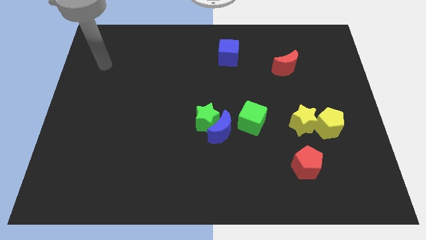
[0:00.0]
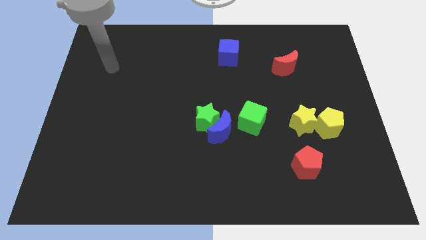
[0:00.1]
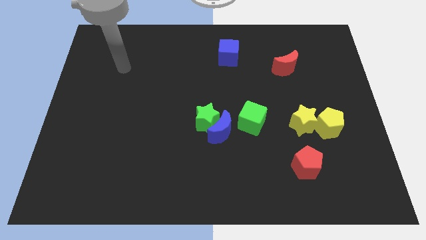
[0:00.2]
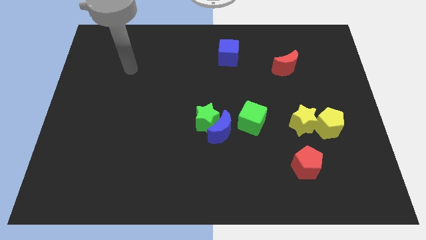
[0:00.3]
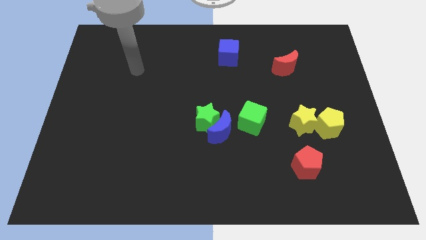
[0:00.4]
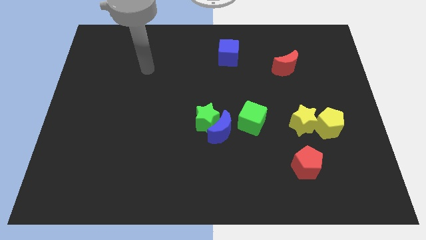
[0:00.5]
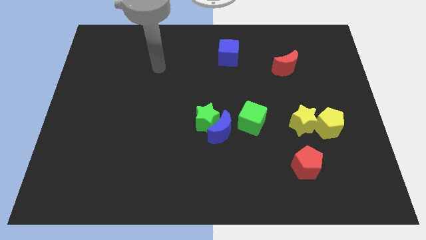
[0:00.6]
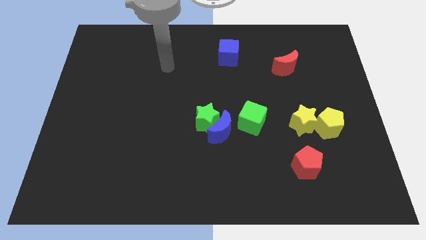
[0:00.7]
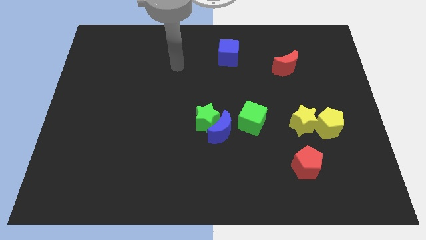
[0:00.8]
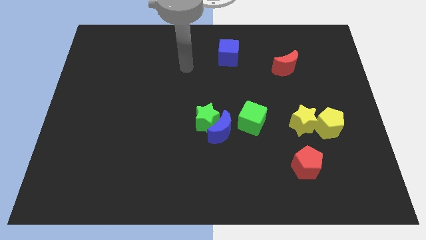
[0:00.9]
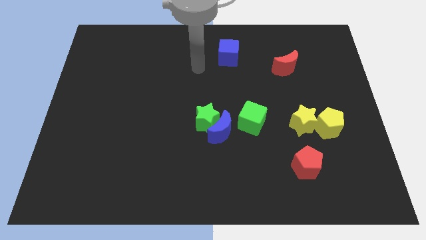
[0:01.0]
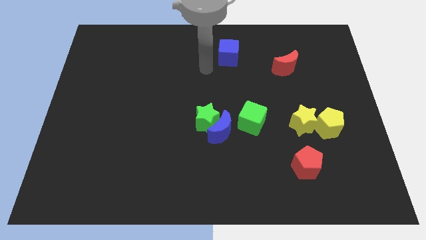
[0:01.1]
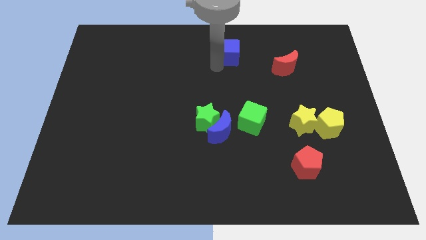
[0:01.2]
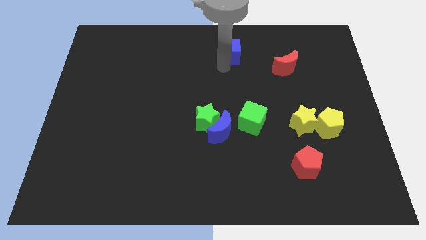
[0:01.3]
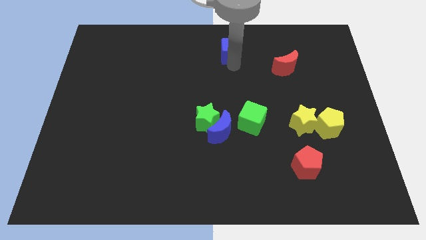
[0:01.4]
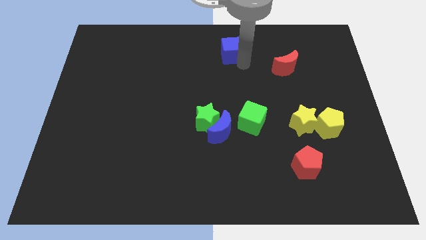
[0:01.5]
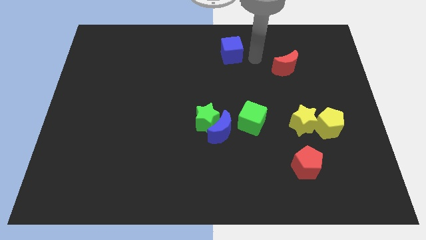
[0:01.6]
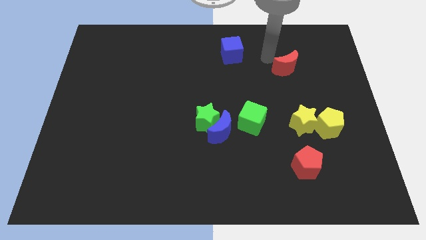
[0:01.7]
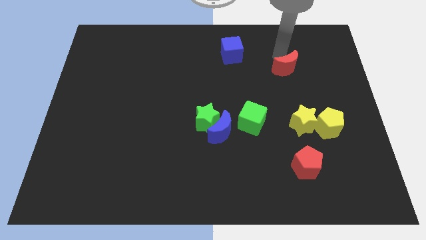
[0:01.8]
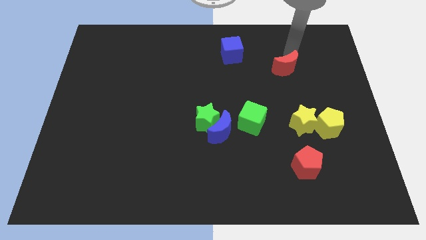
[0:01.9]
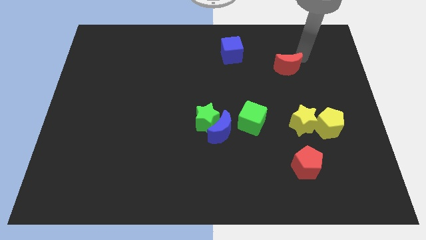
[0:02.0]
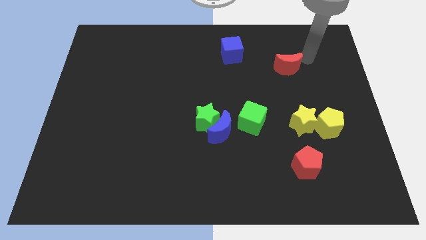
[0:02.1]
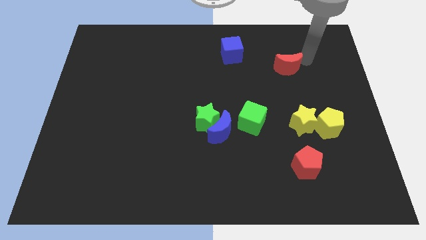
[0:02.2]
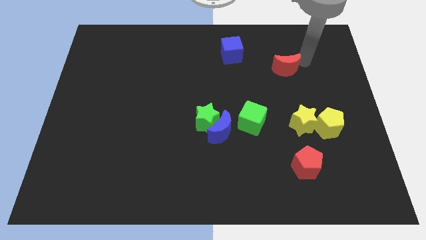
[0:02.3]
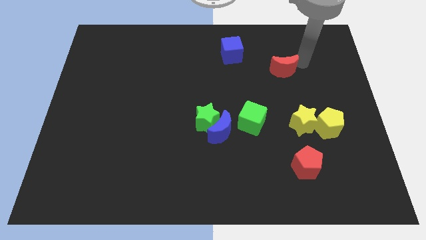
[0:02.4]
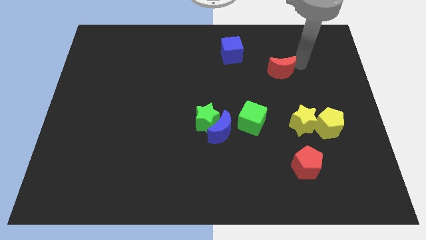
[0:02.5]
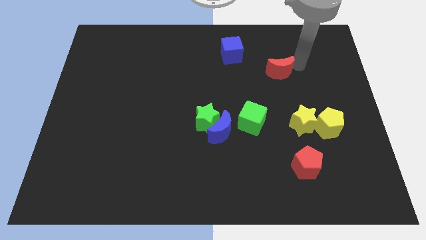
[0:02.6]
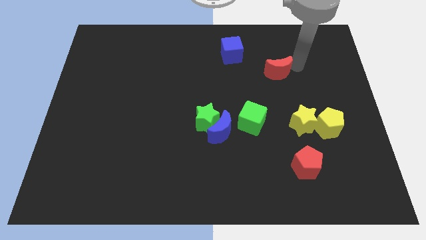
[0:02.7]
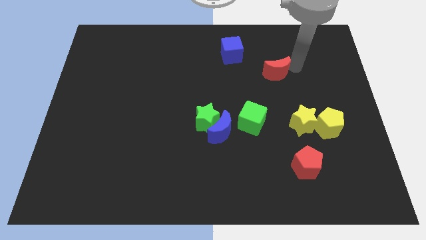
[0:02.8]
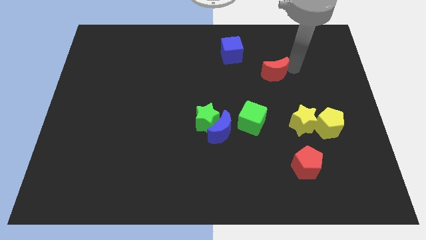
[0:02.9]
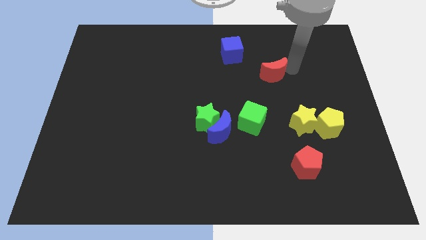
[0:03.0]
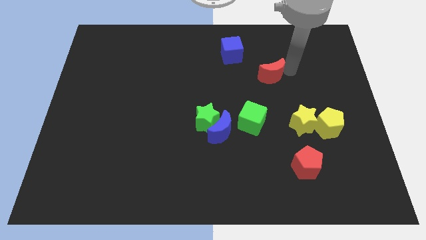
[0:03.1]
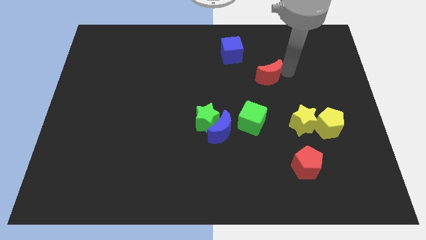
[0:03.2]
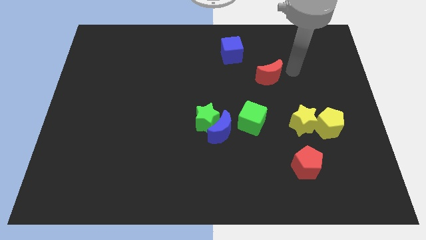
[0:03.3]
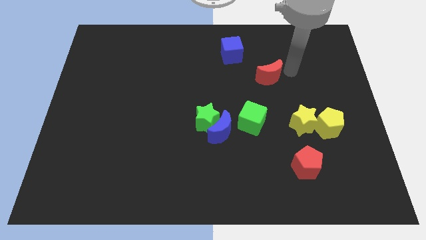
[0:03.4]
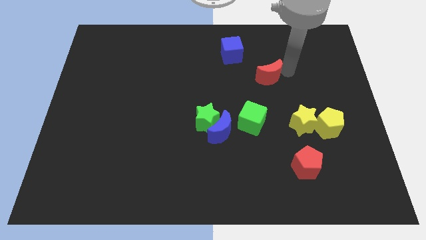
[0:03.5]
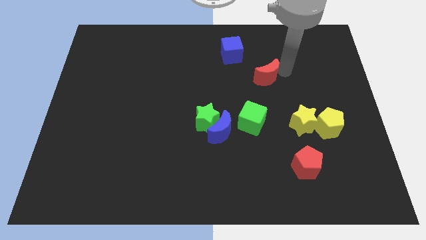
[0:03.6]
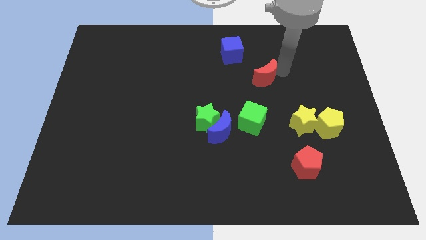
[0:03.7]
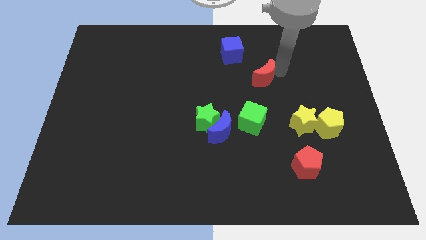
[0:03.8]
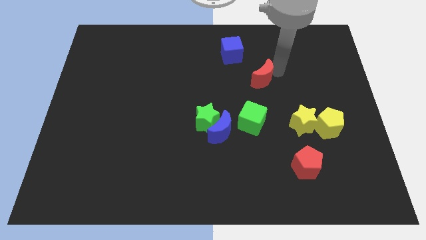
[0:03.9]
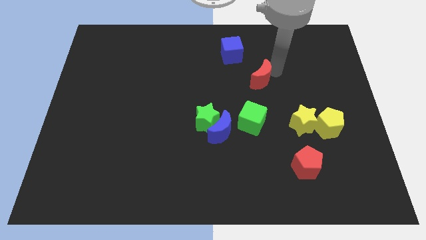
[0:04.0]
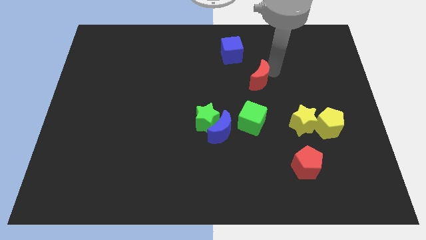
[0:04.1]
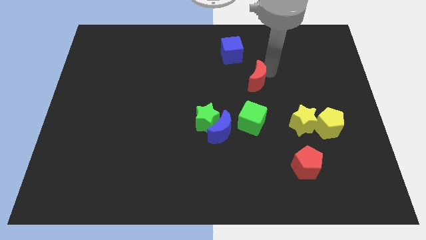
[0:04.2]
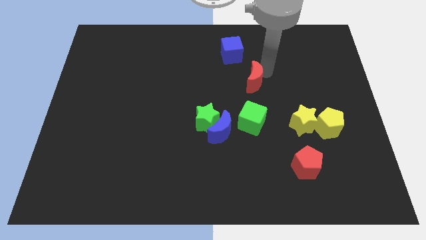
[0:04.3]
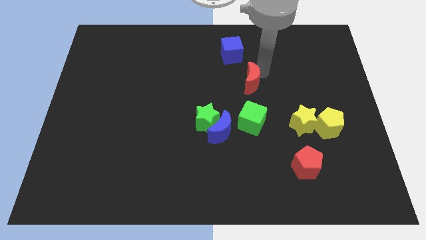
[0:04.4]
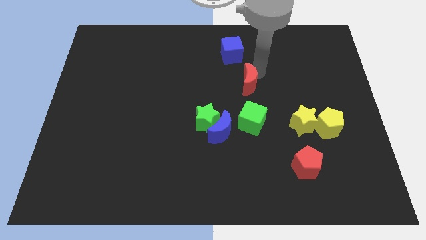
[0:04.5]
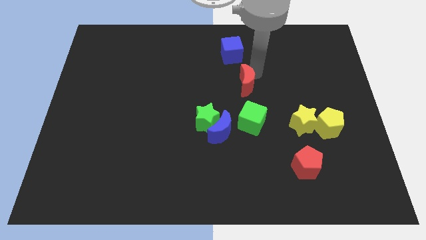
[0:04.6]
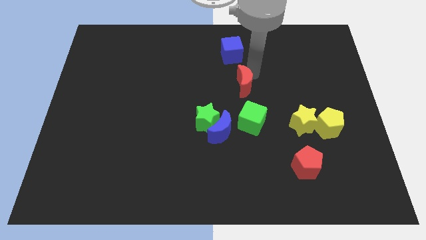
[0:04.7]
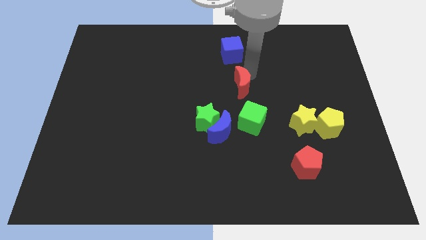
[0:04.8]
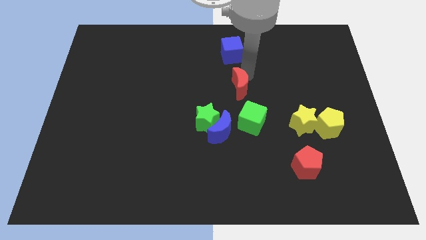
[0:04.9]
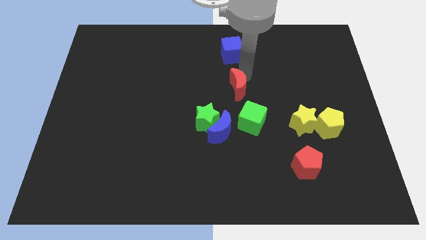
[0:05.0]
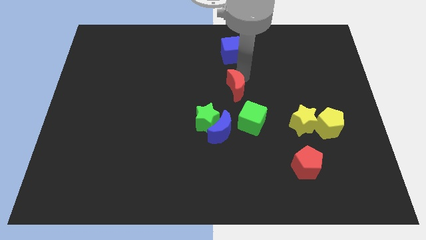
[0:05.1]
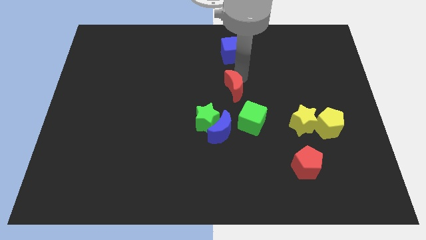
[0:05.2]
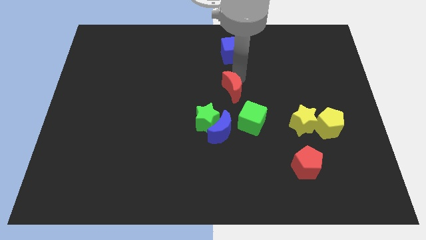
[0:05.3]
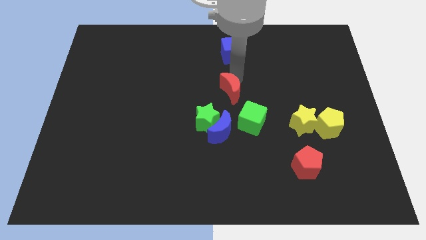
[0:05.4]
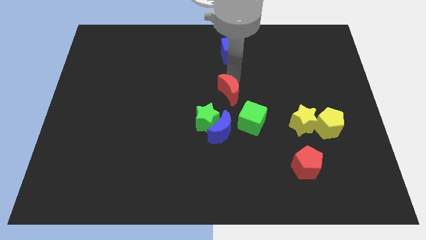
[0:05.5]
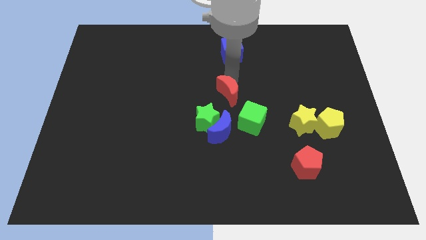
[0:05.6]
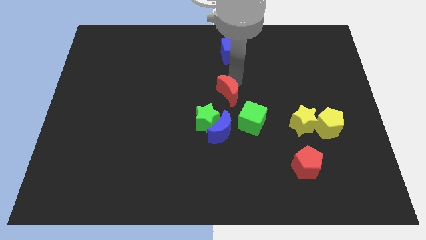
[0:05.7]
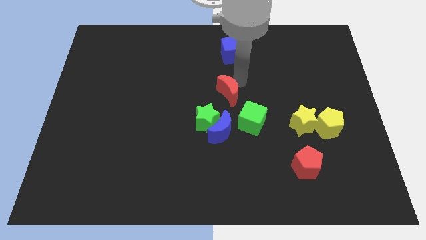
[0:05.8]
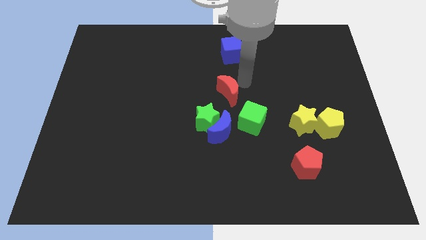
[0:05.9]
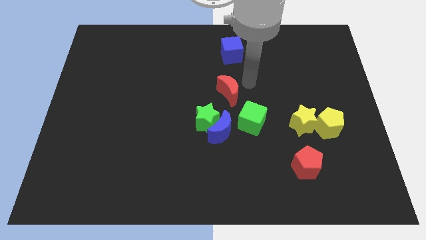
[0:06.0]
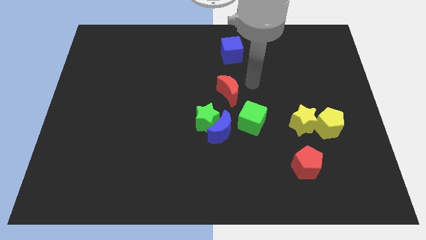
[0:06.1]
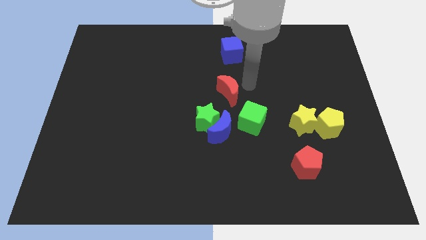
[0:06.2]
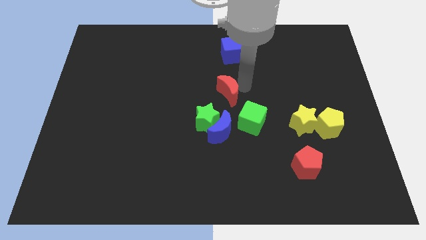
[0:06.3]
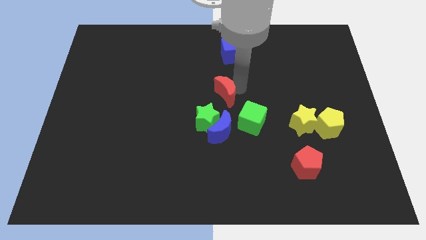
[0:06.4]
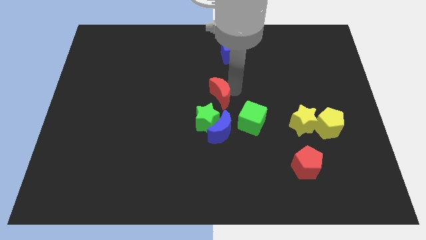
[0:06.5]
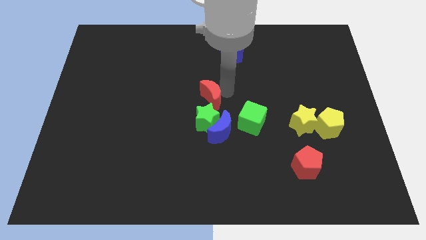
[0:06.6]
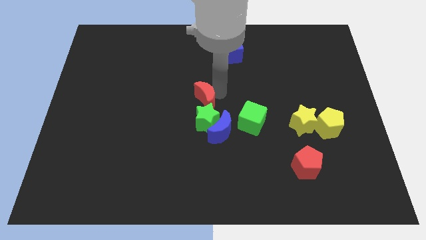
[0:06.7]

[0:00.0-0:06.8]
slide the red moon diagonally downwards and left

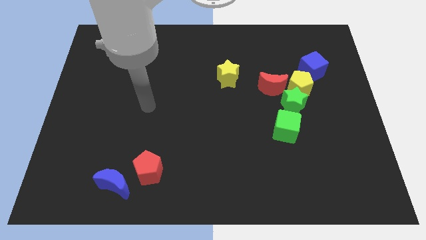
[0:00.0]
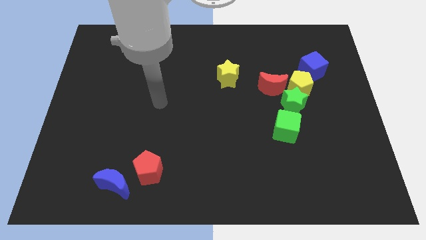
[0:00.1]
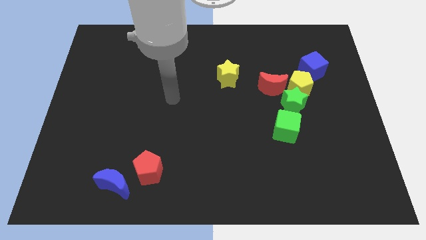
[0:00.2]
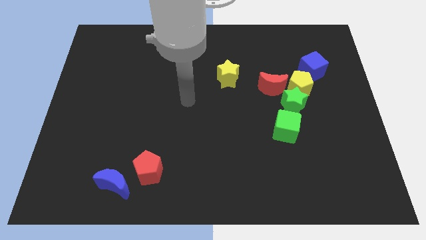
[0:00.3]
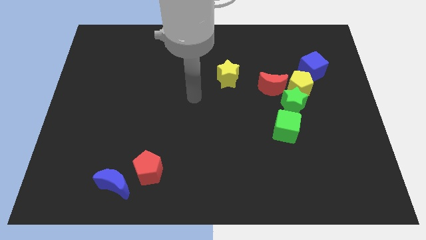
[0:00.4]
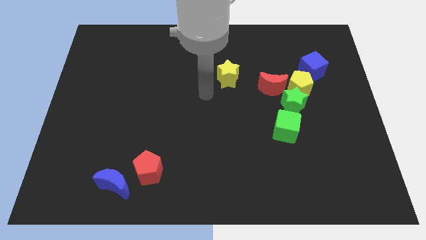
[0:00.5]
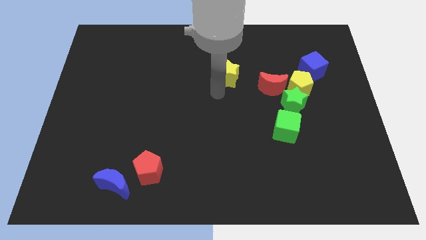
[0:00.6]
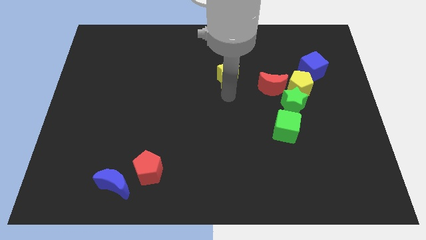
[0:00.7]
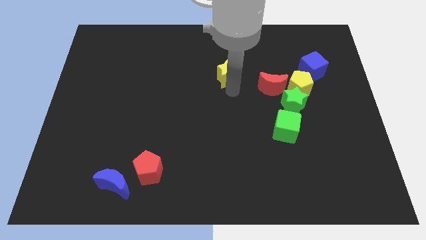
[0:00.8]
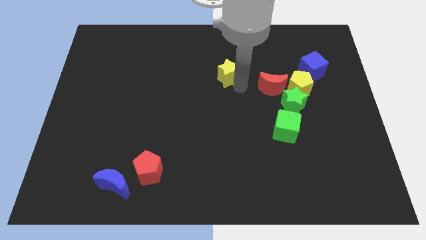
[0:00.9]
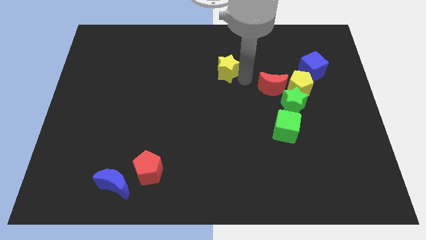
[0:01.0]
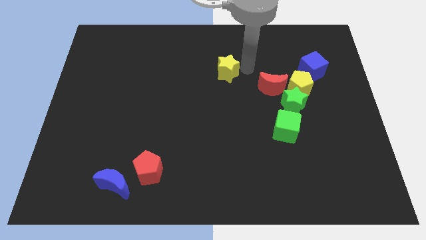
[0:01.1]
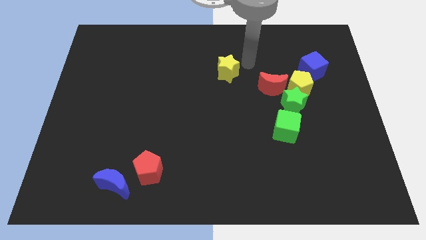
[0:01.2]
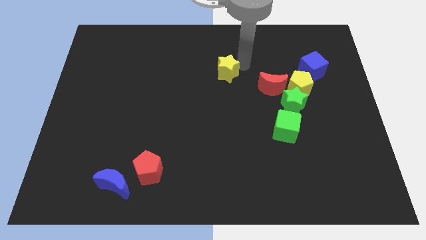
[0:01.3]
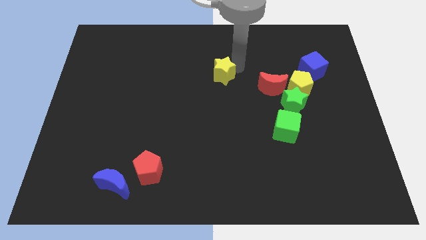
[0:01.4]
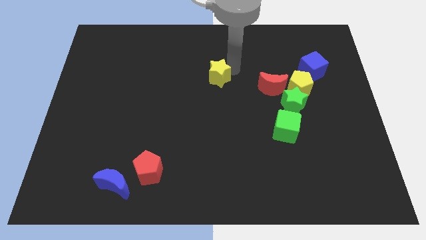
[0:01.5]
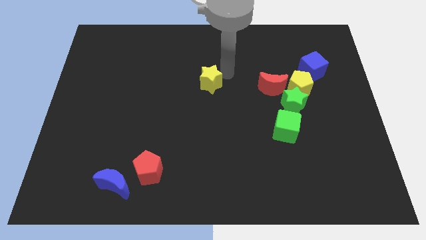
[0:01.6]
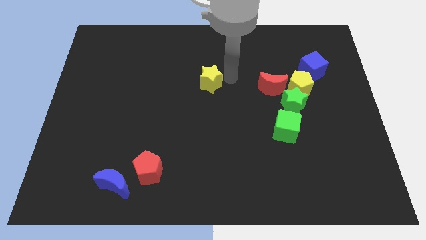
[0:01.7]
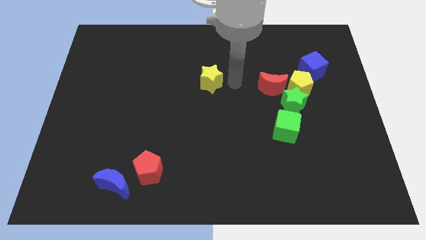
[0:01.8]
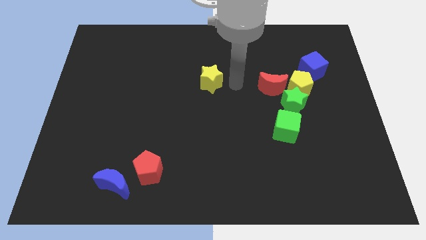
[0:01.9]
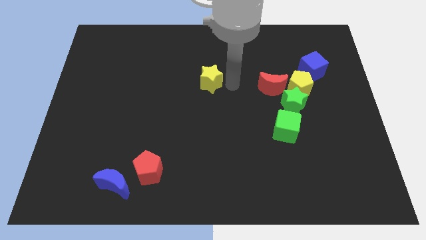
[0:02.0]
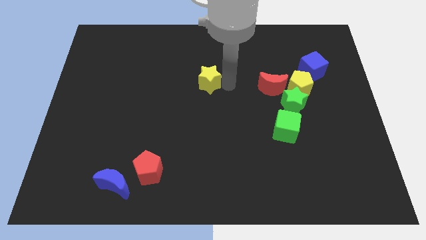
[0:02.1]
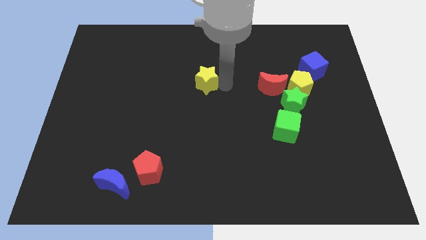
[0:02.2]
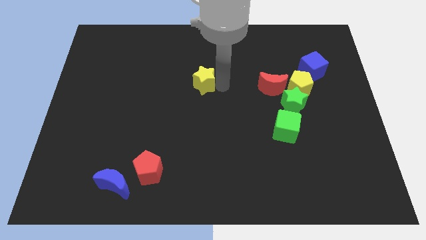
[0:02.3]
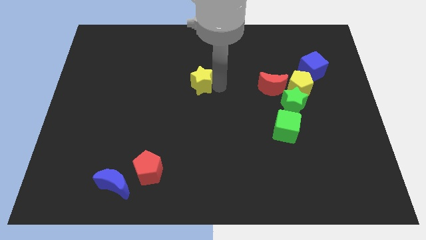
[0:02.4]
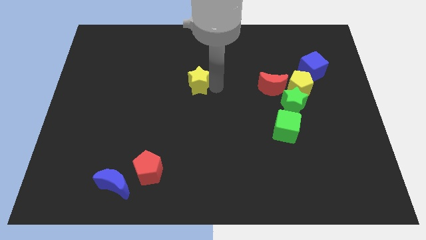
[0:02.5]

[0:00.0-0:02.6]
slightly push the yellow star left
